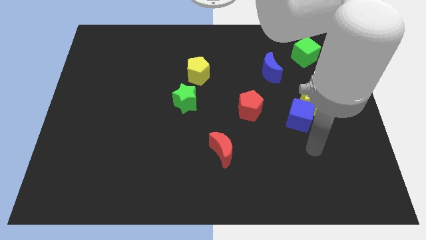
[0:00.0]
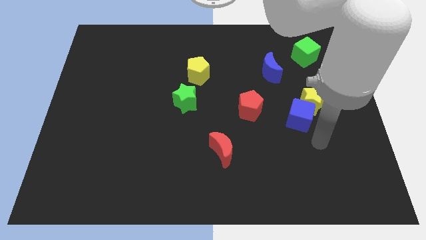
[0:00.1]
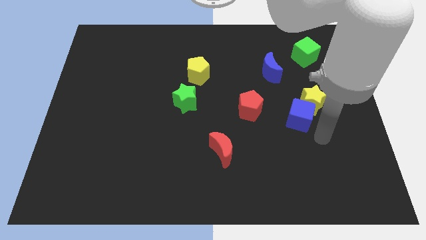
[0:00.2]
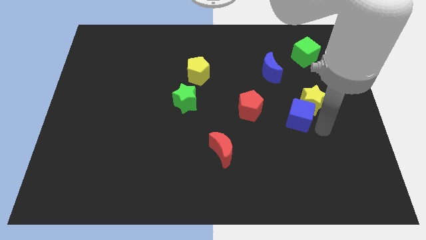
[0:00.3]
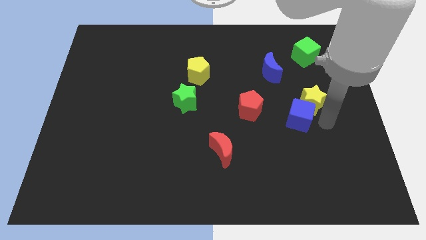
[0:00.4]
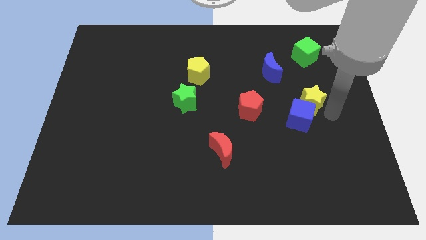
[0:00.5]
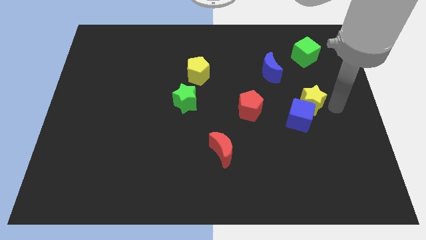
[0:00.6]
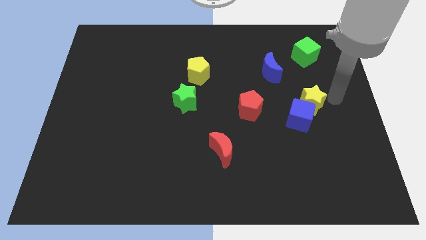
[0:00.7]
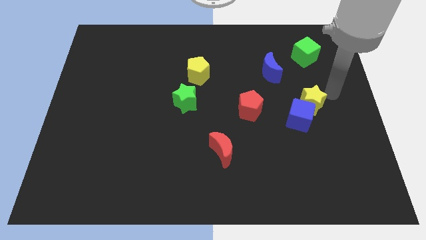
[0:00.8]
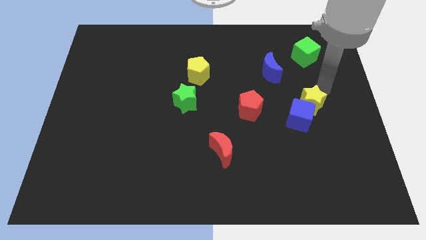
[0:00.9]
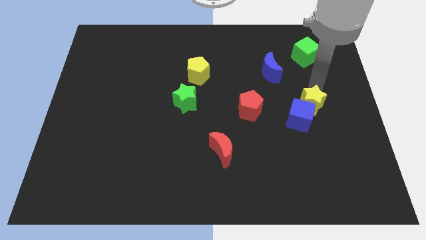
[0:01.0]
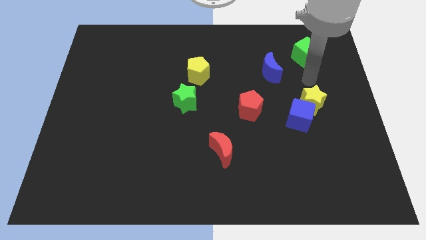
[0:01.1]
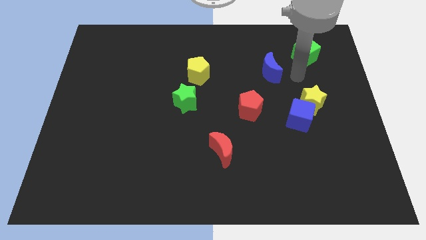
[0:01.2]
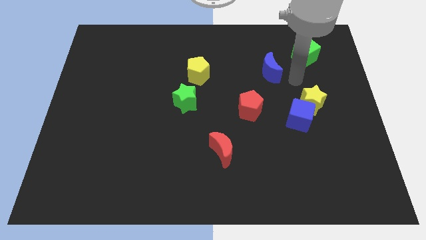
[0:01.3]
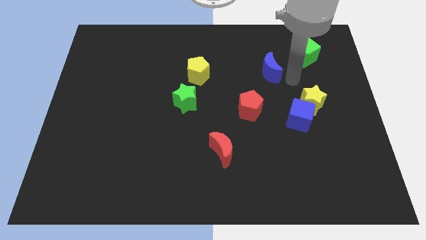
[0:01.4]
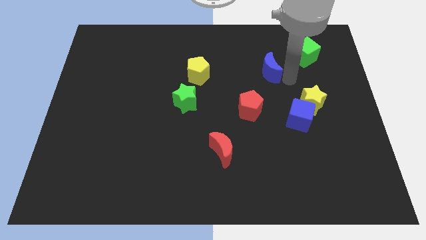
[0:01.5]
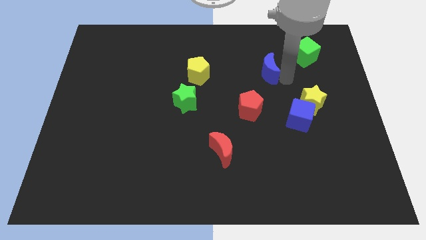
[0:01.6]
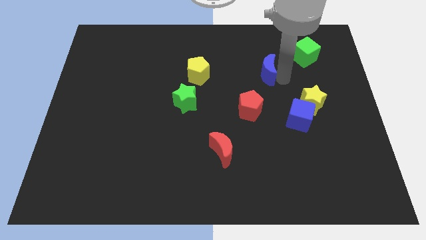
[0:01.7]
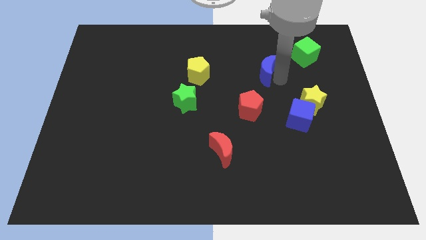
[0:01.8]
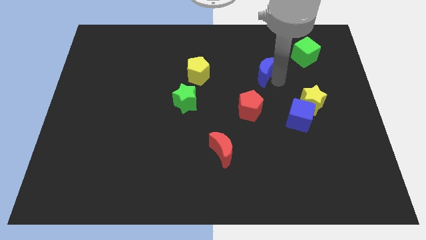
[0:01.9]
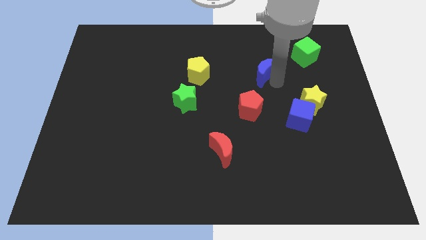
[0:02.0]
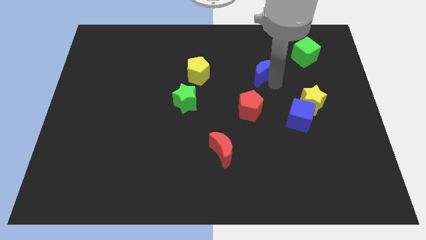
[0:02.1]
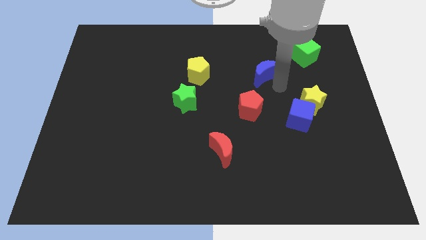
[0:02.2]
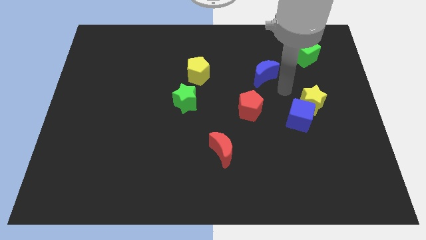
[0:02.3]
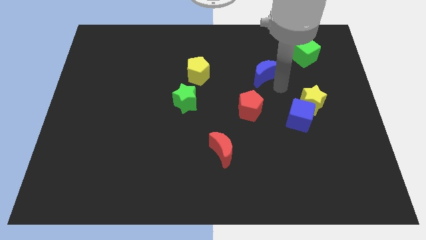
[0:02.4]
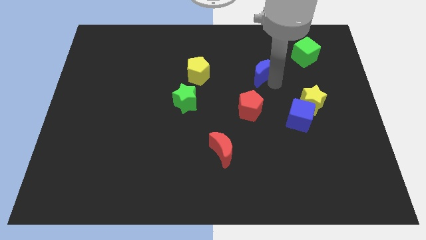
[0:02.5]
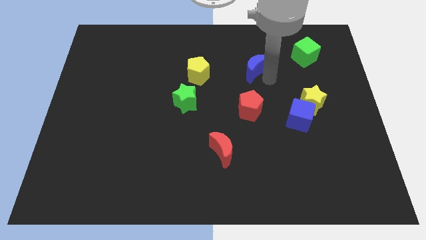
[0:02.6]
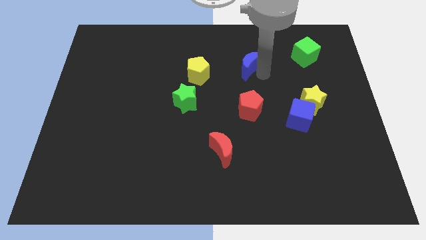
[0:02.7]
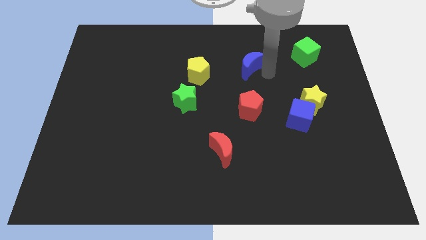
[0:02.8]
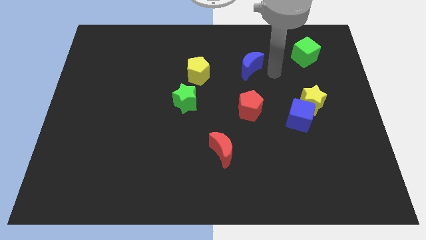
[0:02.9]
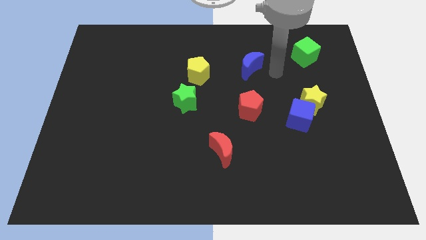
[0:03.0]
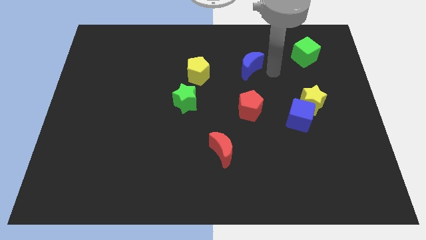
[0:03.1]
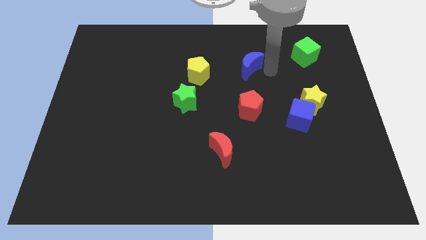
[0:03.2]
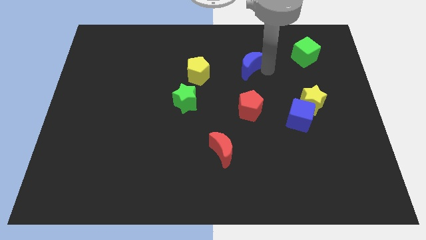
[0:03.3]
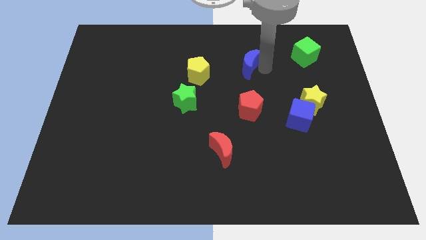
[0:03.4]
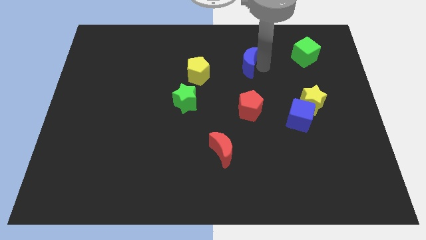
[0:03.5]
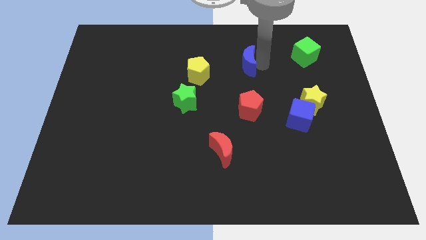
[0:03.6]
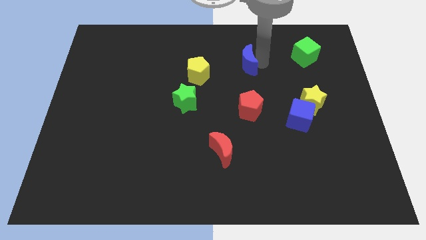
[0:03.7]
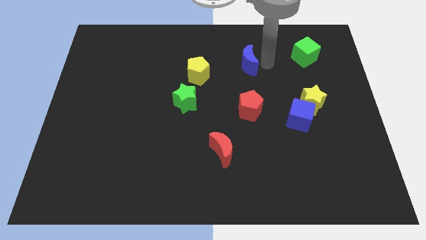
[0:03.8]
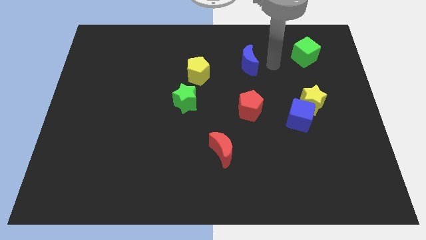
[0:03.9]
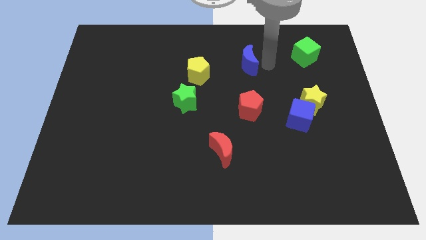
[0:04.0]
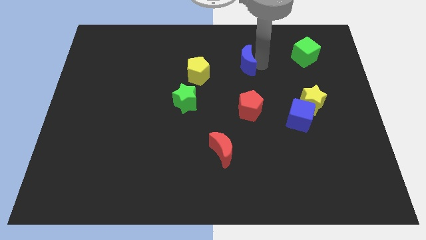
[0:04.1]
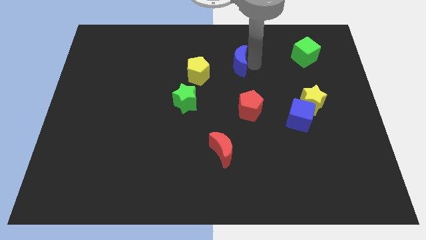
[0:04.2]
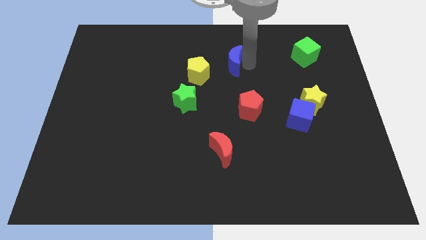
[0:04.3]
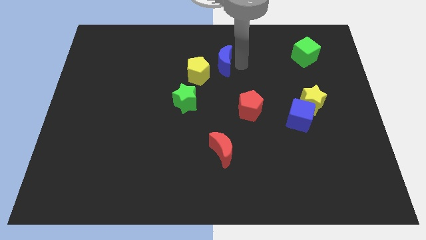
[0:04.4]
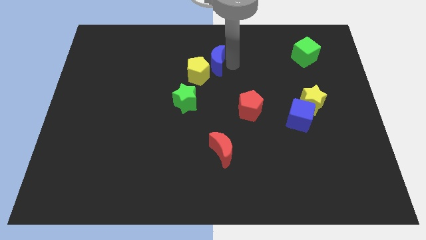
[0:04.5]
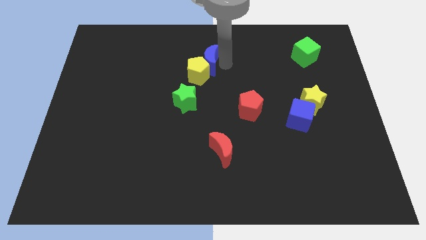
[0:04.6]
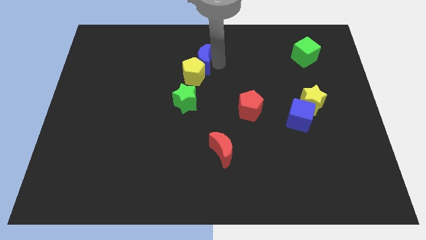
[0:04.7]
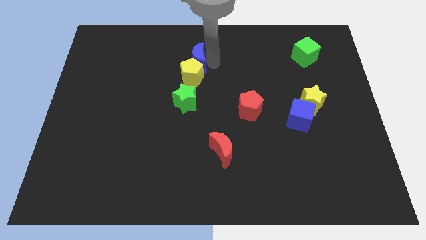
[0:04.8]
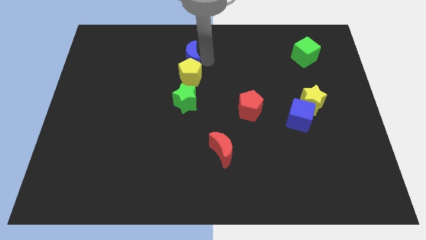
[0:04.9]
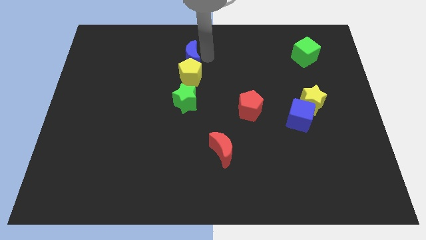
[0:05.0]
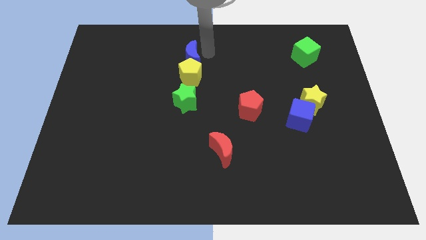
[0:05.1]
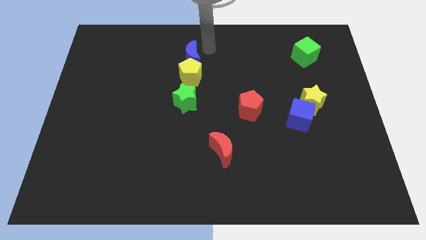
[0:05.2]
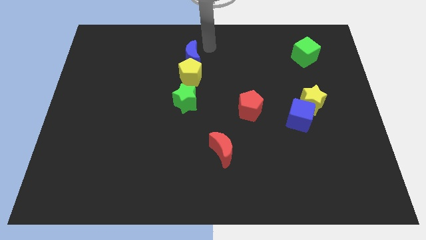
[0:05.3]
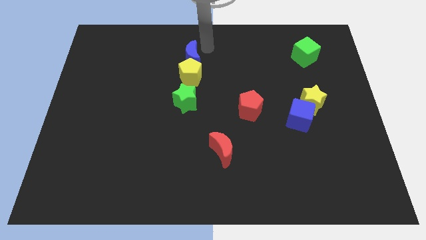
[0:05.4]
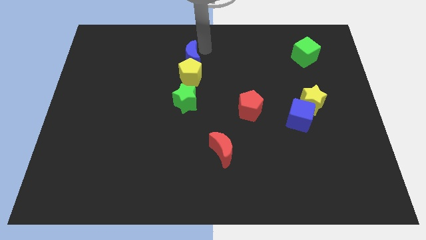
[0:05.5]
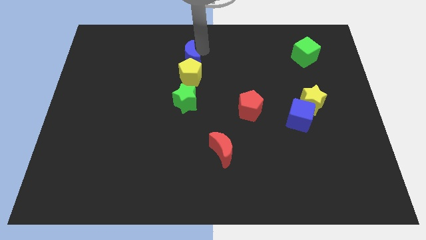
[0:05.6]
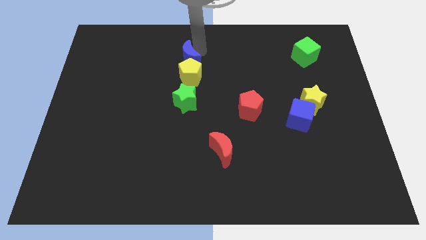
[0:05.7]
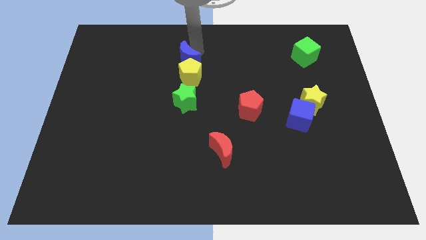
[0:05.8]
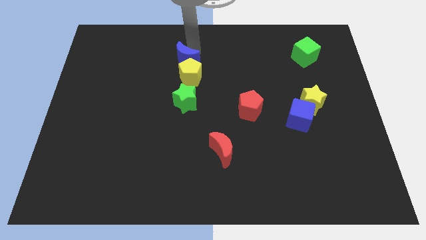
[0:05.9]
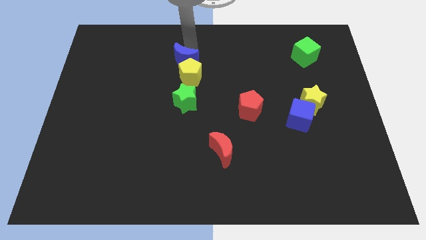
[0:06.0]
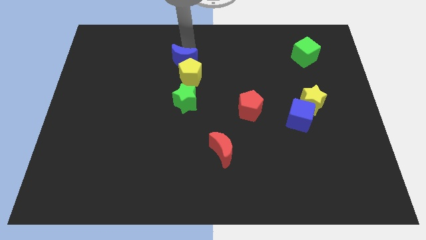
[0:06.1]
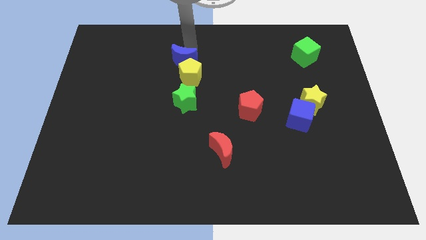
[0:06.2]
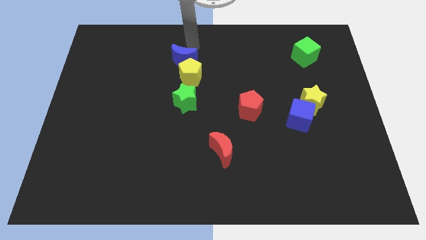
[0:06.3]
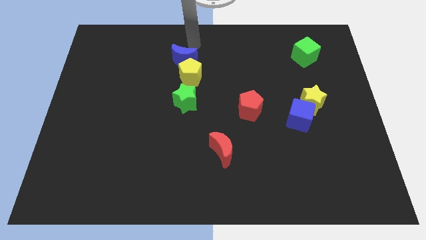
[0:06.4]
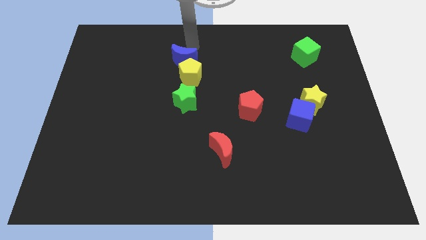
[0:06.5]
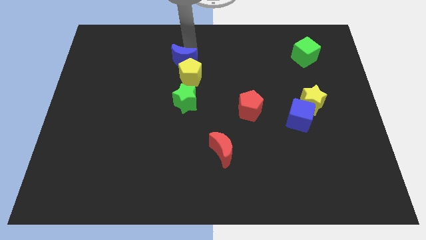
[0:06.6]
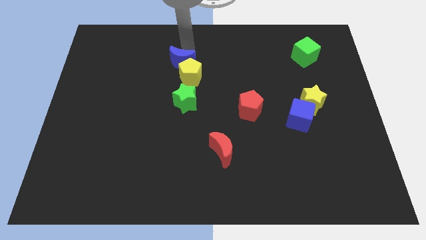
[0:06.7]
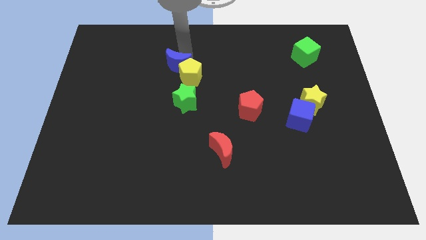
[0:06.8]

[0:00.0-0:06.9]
move the blue moon to the left of the yellow pentagon
